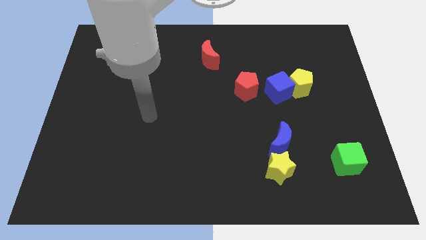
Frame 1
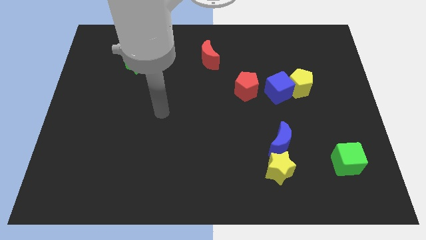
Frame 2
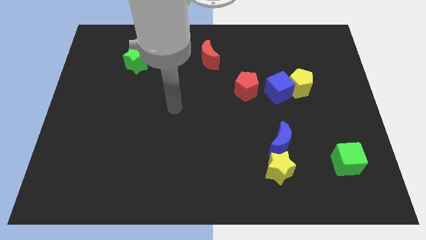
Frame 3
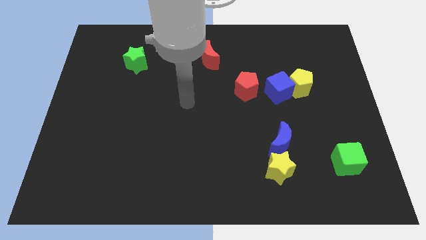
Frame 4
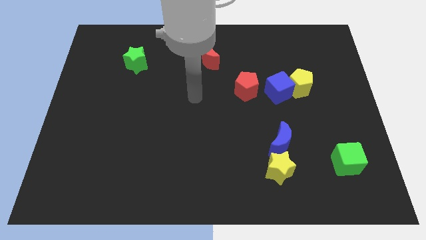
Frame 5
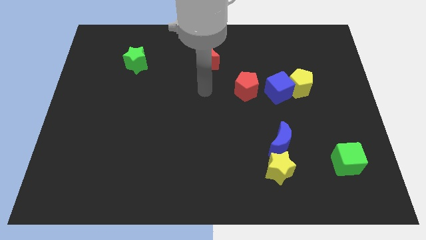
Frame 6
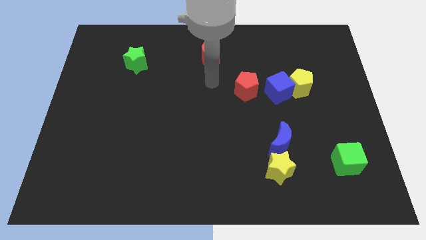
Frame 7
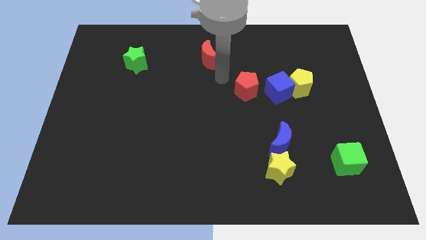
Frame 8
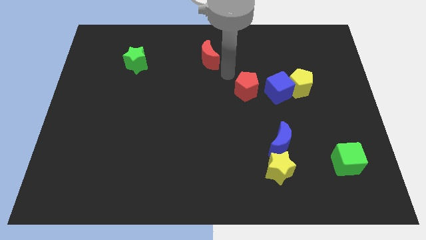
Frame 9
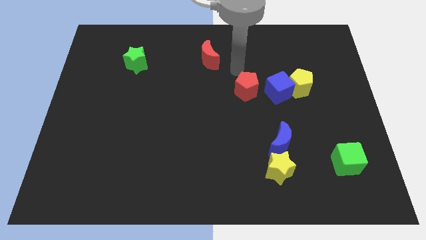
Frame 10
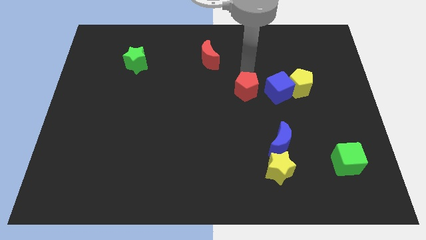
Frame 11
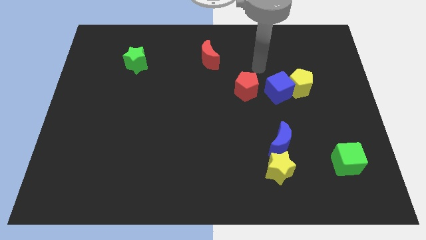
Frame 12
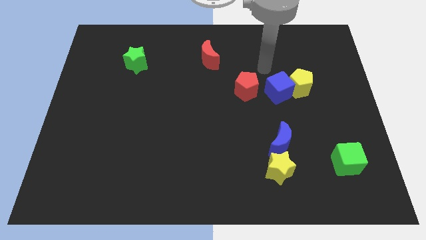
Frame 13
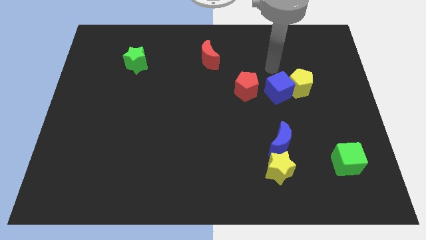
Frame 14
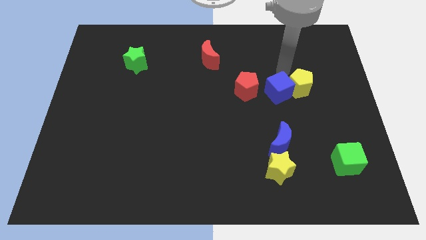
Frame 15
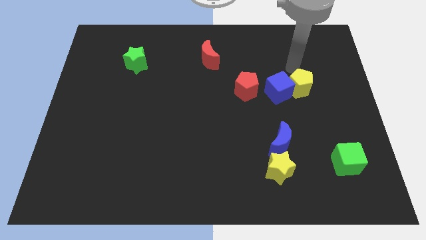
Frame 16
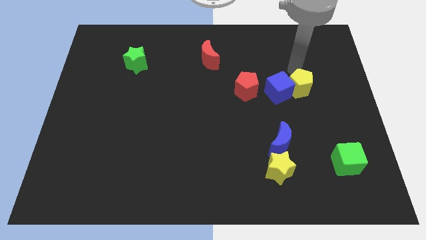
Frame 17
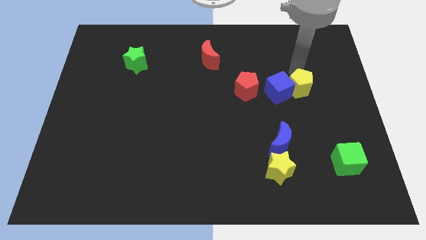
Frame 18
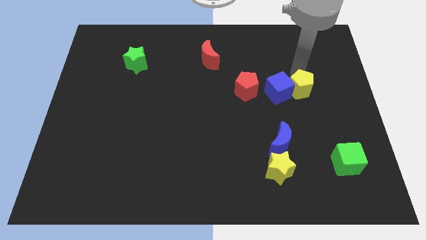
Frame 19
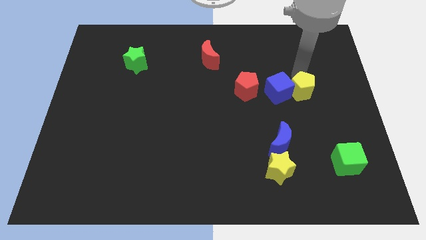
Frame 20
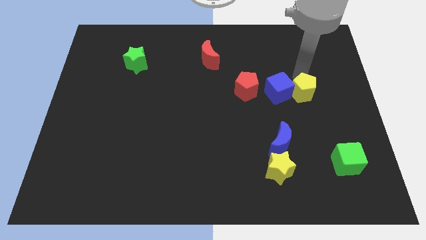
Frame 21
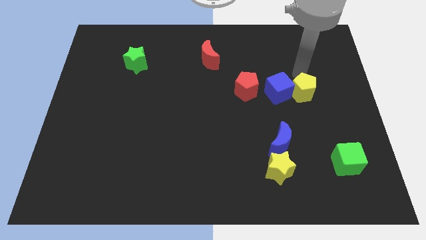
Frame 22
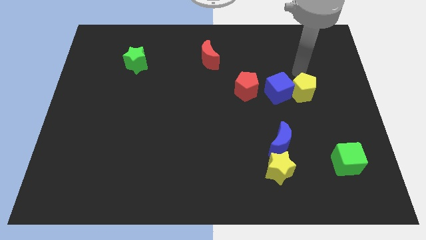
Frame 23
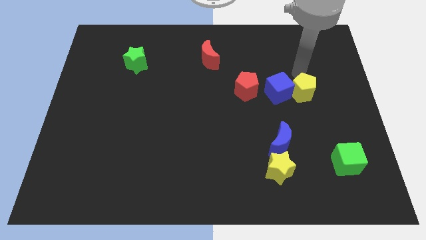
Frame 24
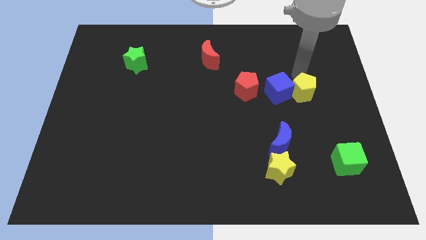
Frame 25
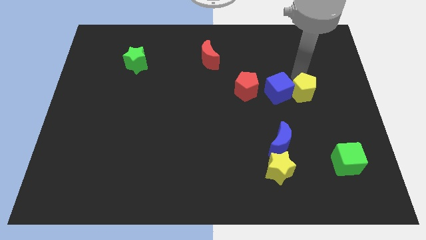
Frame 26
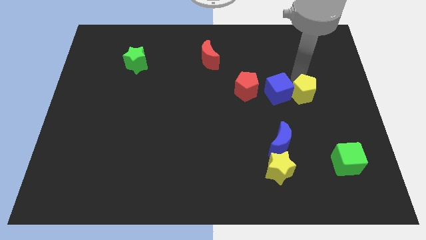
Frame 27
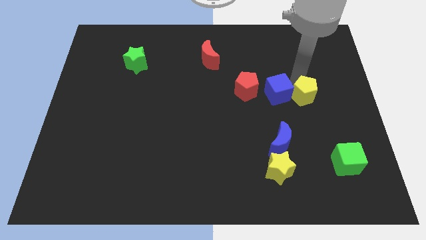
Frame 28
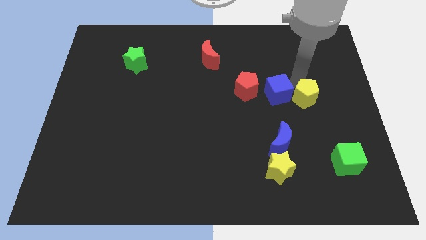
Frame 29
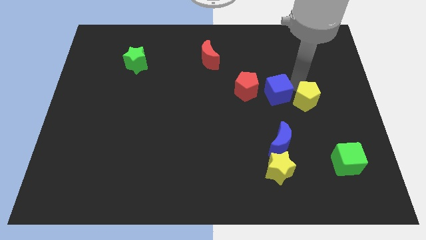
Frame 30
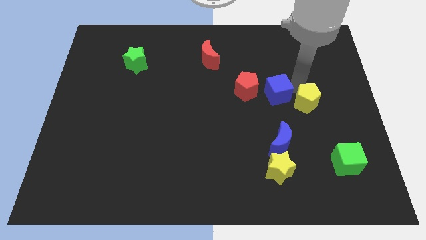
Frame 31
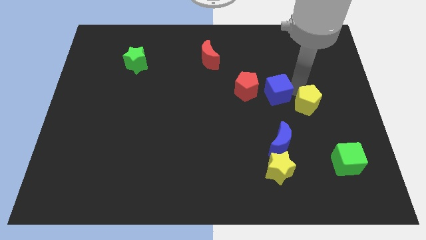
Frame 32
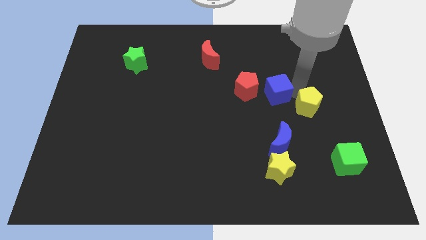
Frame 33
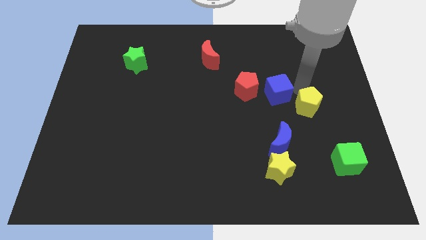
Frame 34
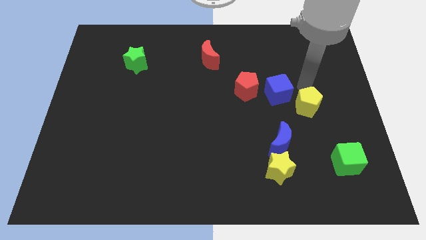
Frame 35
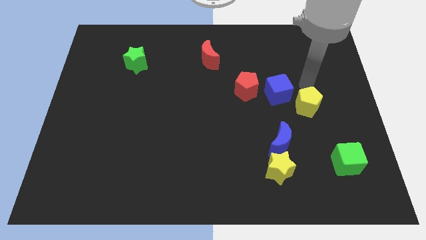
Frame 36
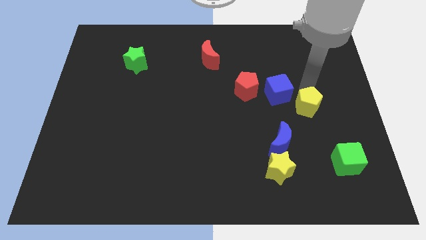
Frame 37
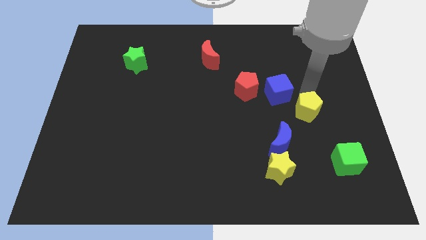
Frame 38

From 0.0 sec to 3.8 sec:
slightly push the yellow pentagon downwards

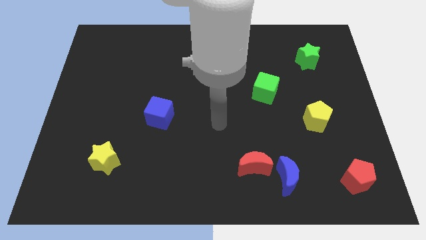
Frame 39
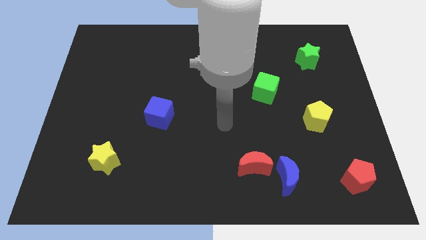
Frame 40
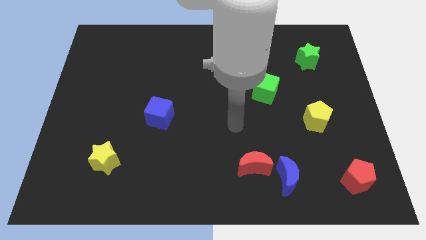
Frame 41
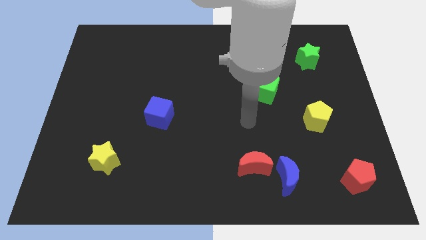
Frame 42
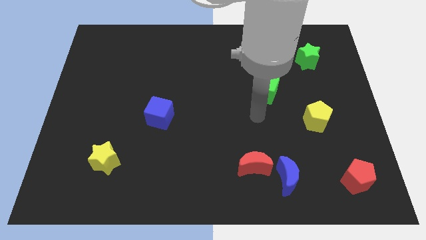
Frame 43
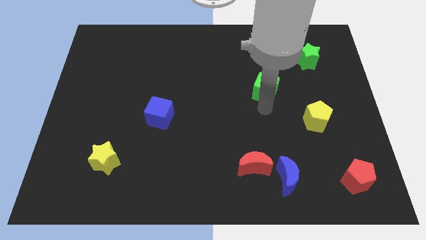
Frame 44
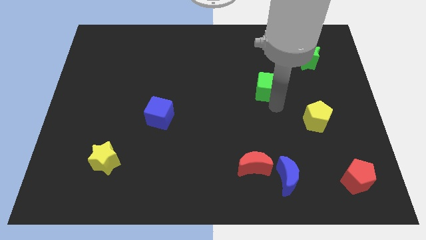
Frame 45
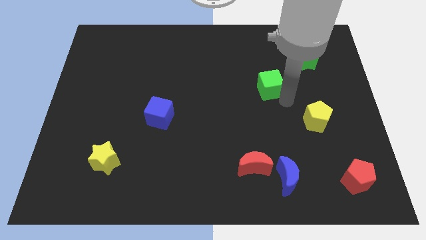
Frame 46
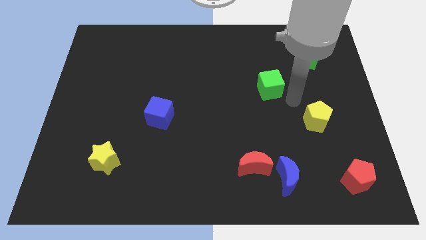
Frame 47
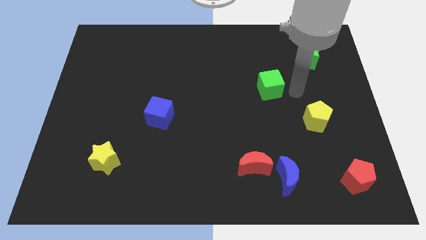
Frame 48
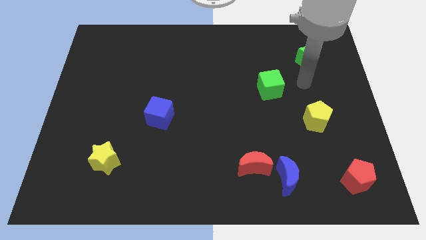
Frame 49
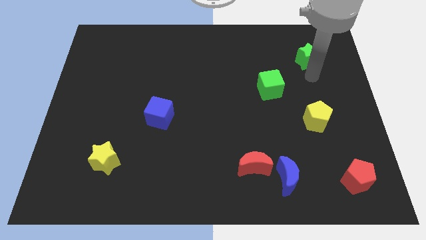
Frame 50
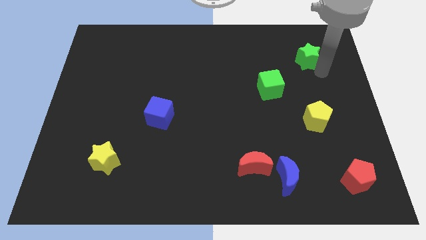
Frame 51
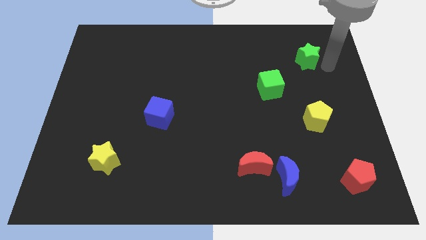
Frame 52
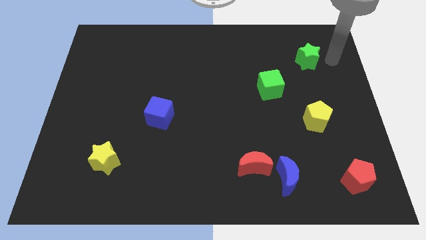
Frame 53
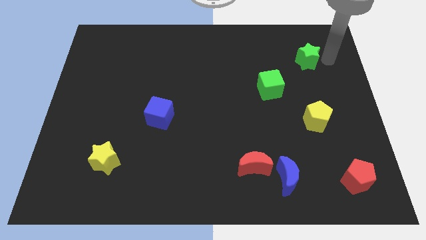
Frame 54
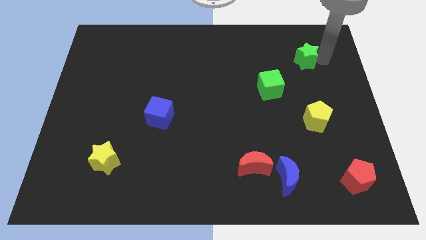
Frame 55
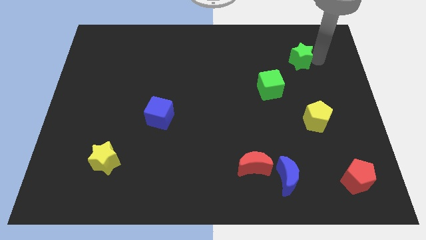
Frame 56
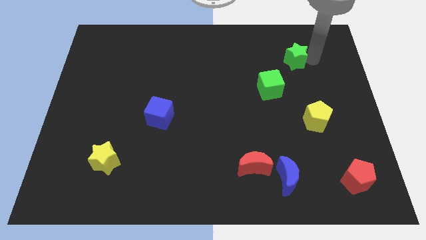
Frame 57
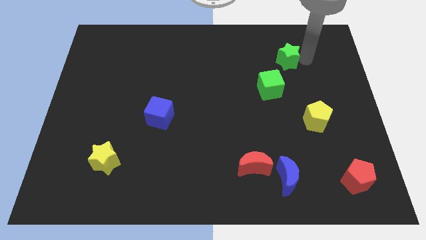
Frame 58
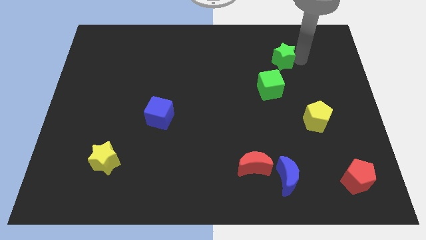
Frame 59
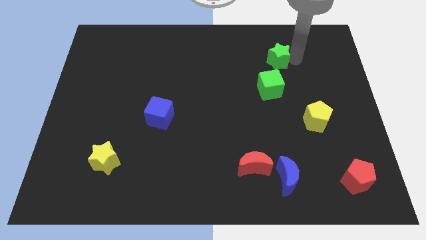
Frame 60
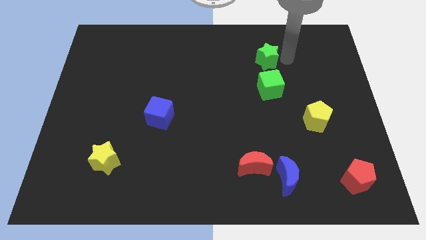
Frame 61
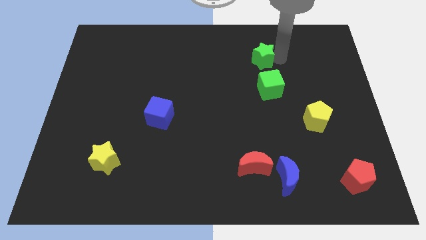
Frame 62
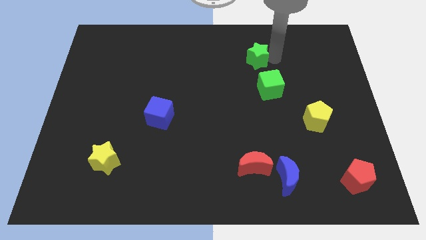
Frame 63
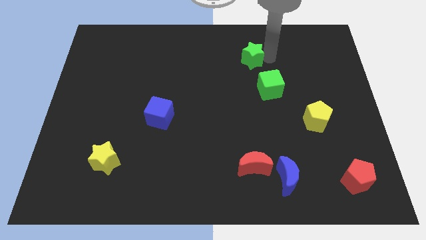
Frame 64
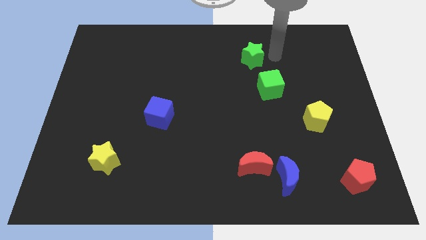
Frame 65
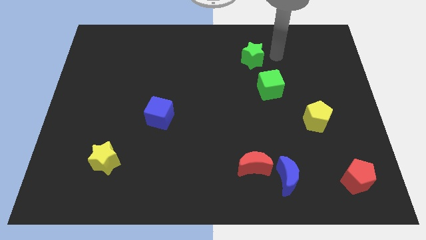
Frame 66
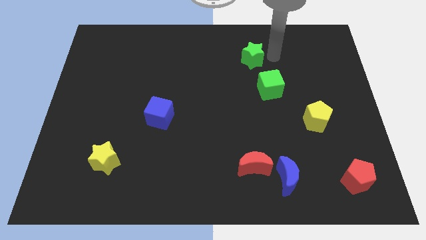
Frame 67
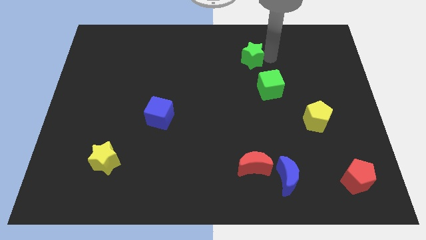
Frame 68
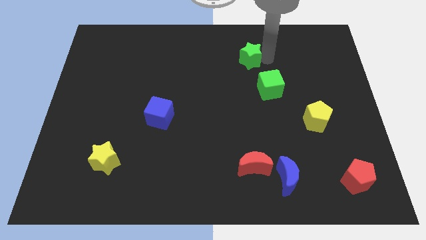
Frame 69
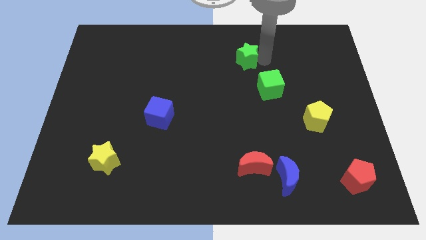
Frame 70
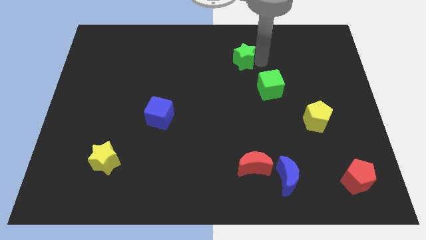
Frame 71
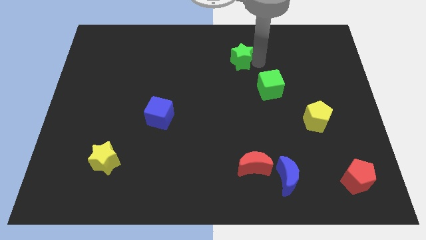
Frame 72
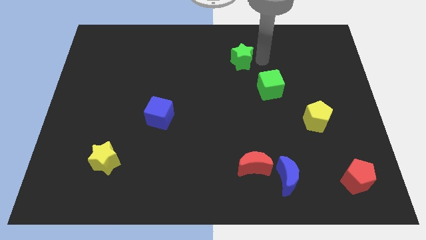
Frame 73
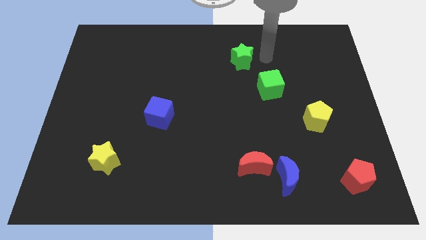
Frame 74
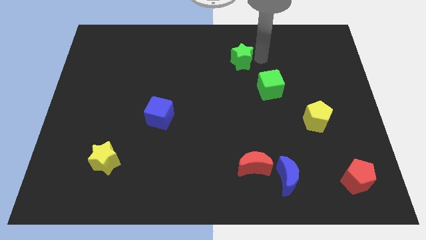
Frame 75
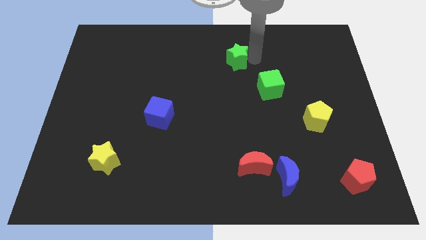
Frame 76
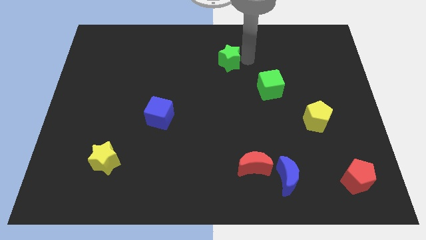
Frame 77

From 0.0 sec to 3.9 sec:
push the green star left
